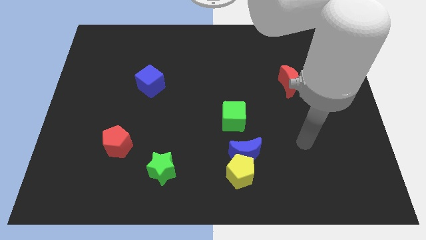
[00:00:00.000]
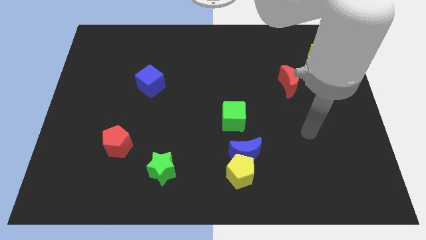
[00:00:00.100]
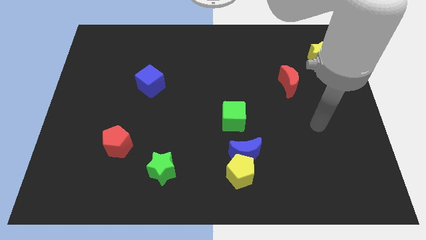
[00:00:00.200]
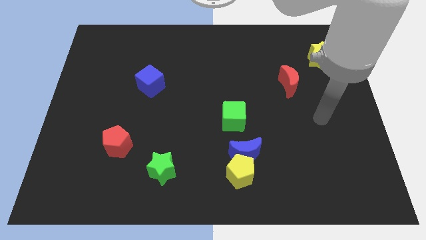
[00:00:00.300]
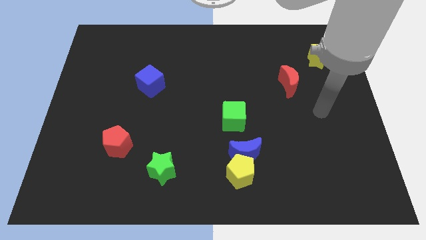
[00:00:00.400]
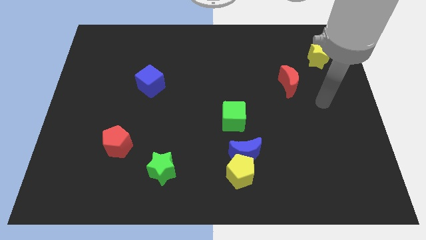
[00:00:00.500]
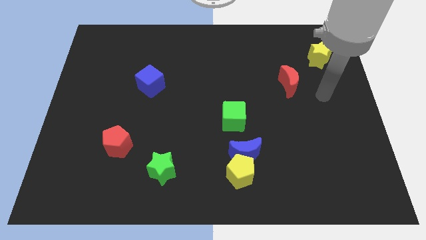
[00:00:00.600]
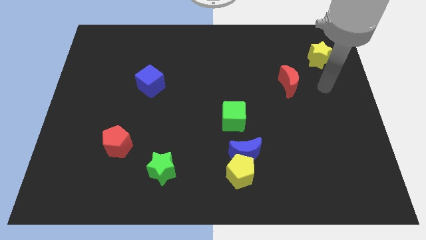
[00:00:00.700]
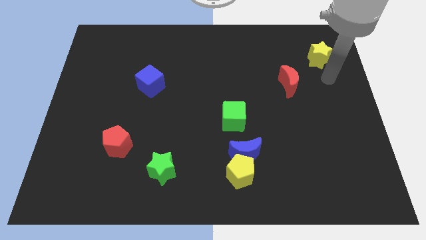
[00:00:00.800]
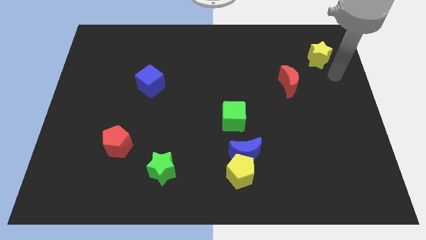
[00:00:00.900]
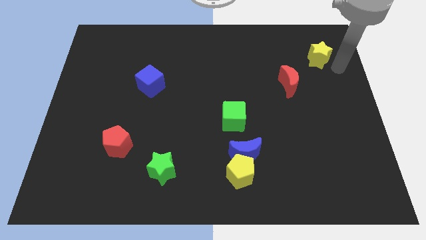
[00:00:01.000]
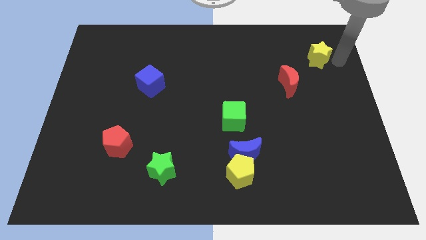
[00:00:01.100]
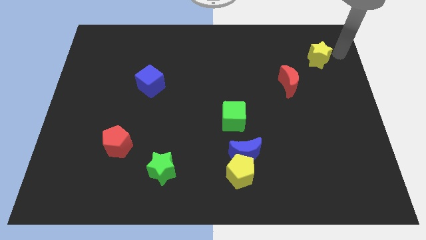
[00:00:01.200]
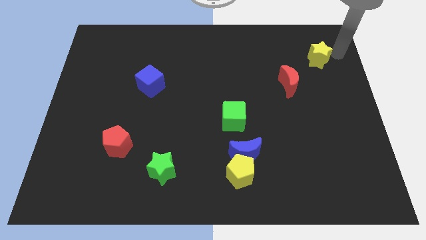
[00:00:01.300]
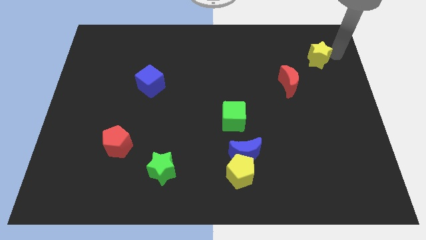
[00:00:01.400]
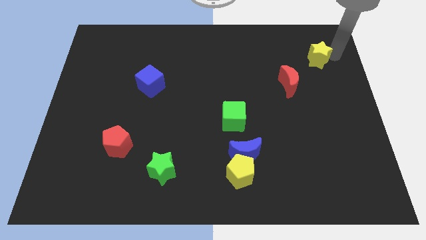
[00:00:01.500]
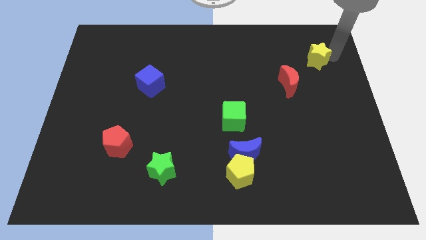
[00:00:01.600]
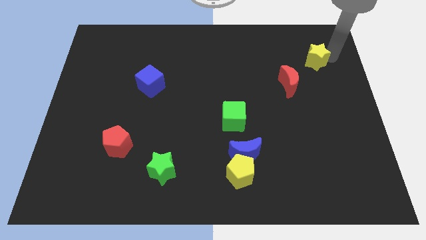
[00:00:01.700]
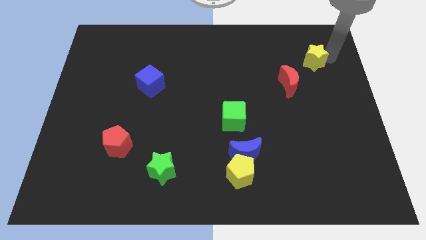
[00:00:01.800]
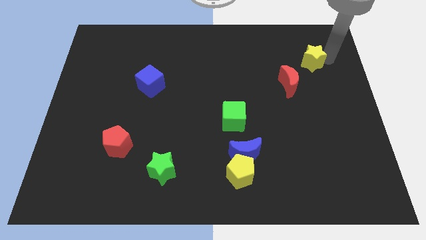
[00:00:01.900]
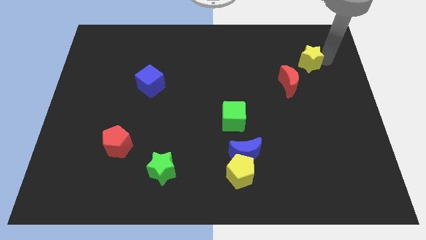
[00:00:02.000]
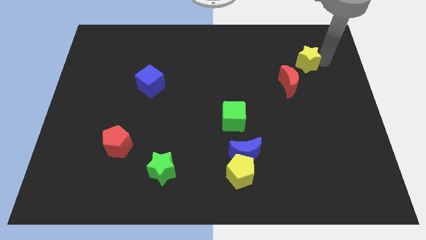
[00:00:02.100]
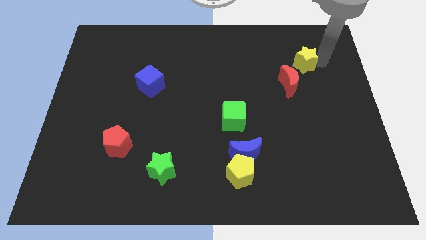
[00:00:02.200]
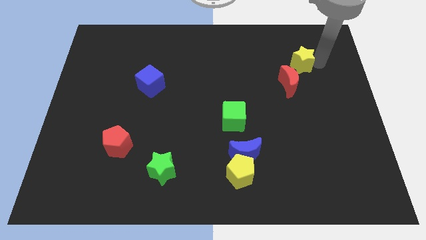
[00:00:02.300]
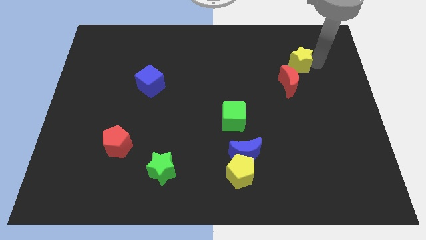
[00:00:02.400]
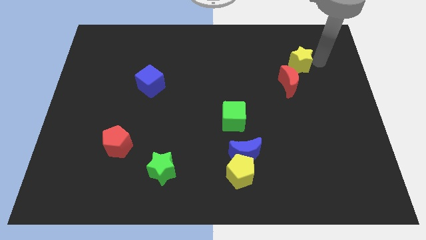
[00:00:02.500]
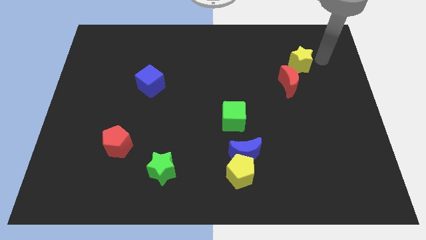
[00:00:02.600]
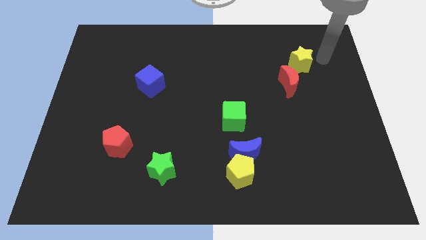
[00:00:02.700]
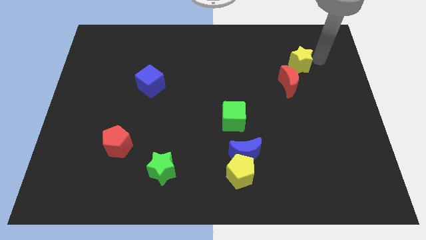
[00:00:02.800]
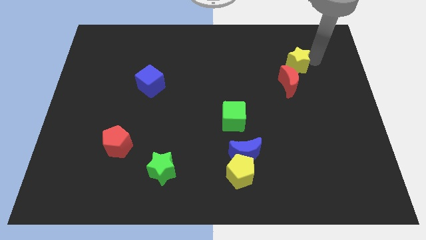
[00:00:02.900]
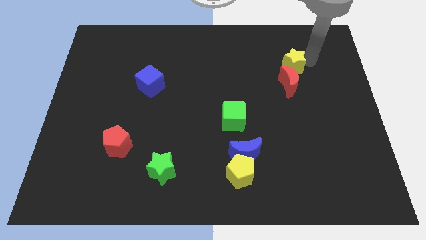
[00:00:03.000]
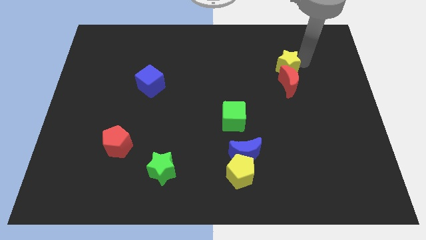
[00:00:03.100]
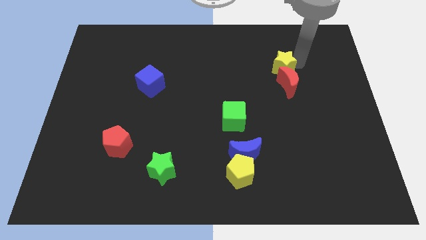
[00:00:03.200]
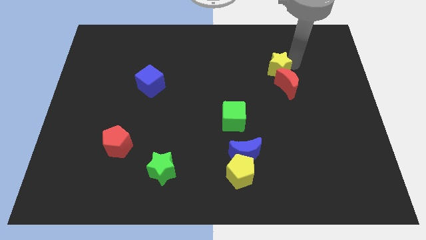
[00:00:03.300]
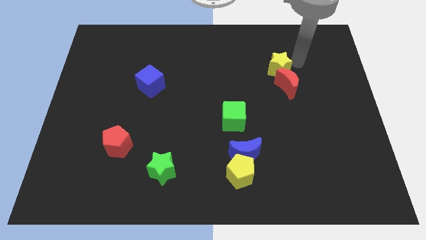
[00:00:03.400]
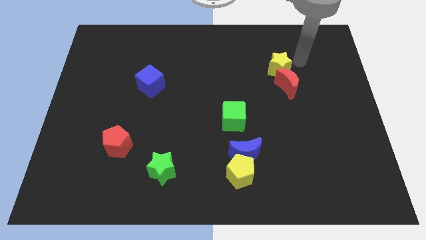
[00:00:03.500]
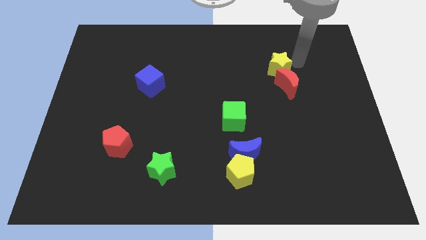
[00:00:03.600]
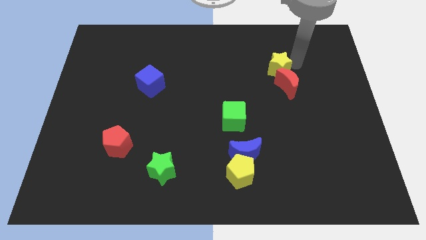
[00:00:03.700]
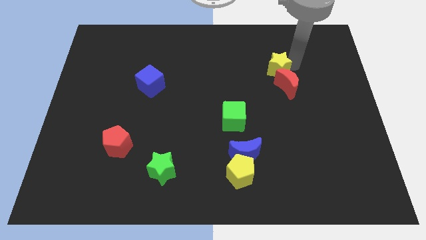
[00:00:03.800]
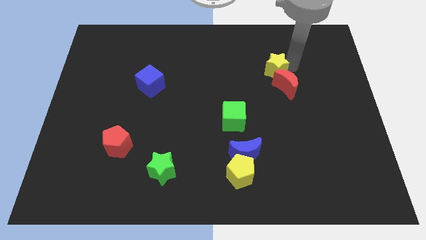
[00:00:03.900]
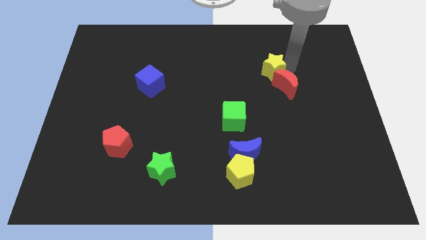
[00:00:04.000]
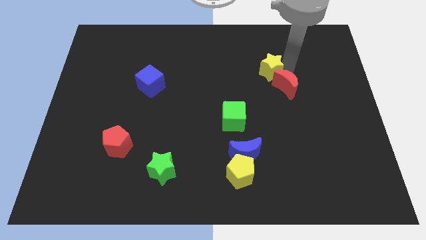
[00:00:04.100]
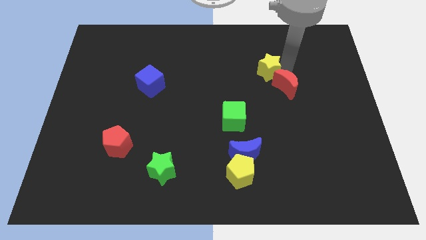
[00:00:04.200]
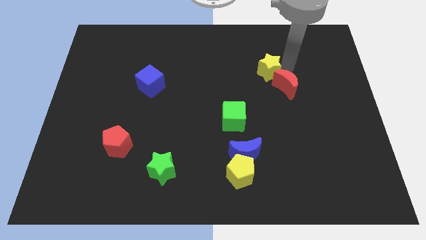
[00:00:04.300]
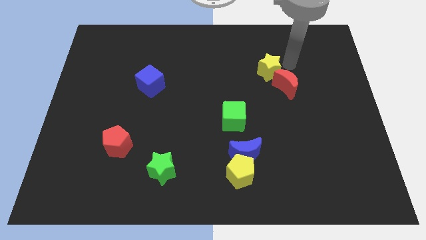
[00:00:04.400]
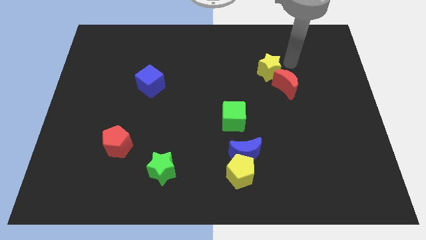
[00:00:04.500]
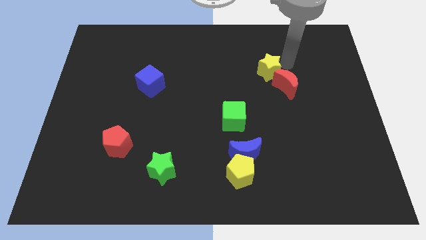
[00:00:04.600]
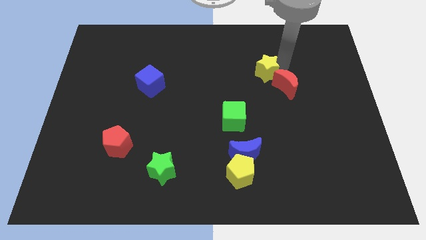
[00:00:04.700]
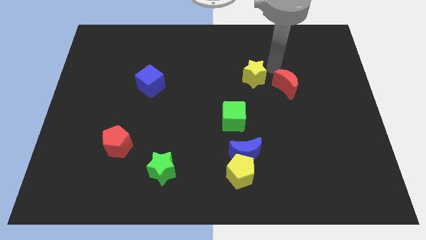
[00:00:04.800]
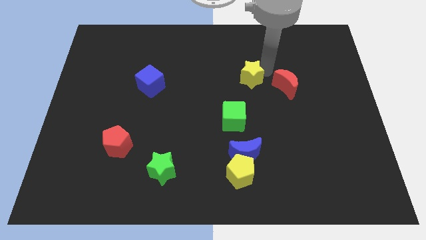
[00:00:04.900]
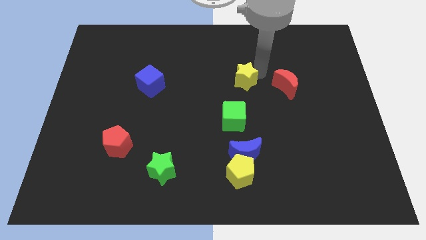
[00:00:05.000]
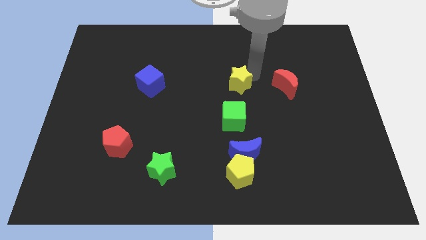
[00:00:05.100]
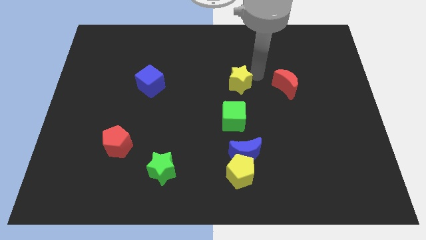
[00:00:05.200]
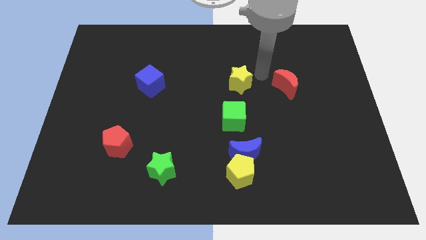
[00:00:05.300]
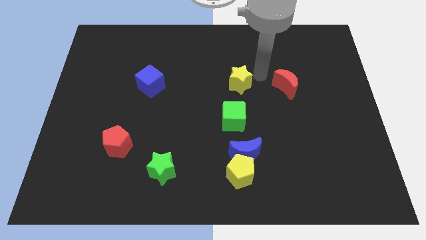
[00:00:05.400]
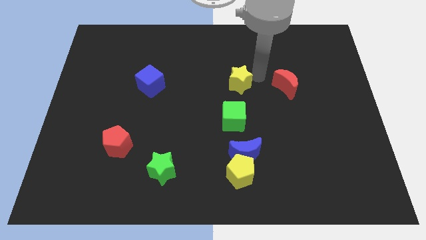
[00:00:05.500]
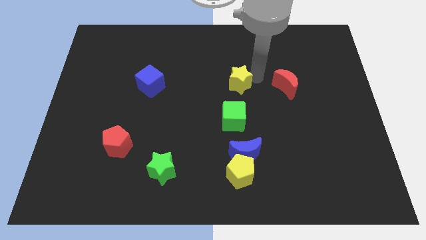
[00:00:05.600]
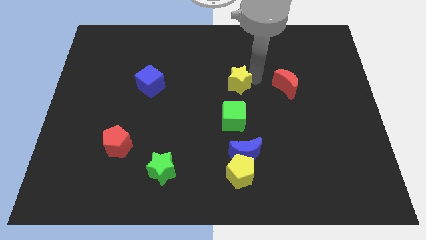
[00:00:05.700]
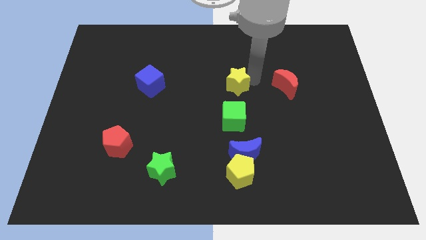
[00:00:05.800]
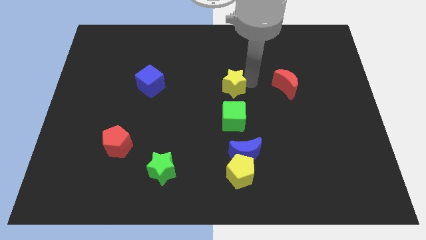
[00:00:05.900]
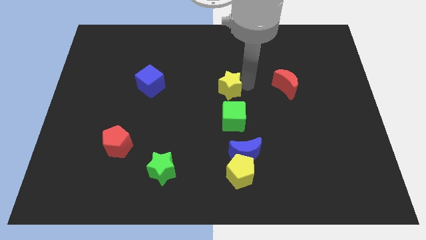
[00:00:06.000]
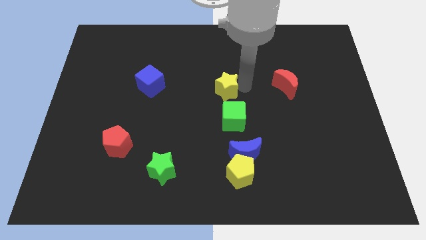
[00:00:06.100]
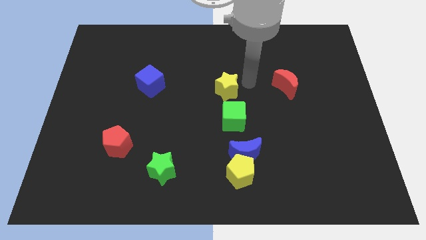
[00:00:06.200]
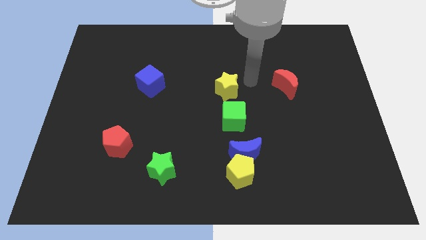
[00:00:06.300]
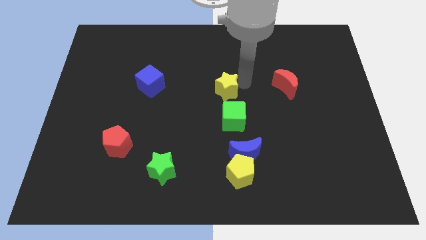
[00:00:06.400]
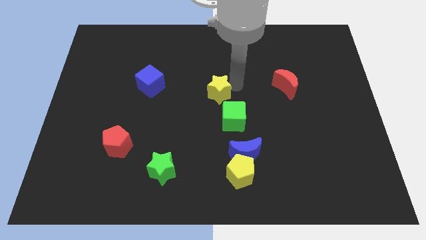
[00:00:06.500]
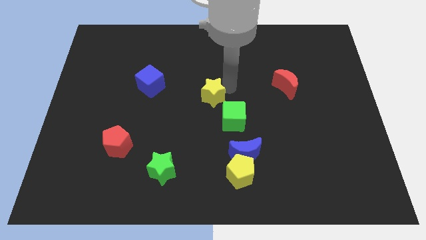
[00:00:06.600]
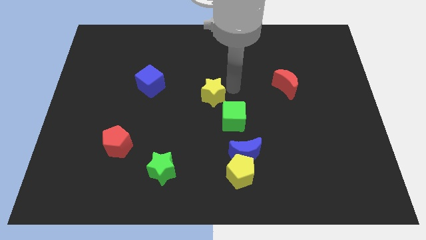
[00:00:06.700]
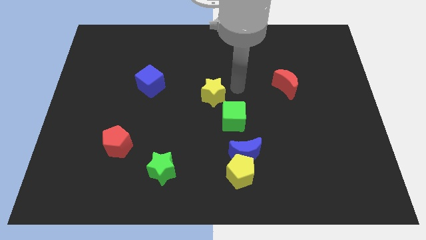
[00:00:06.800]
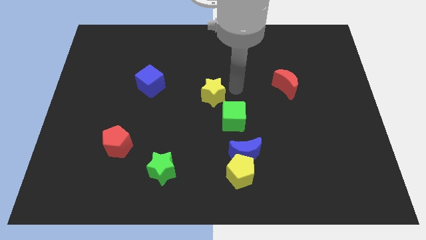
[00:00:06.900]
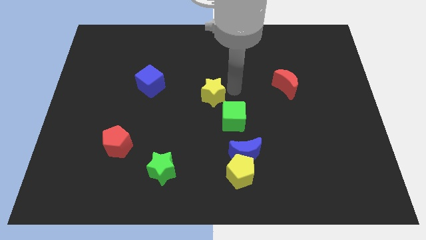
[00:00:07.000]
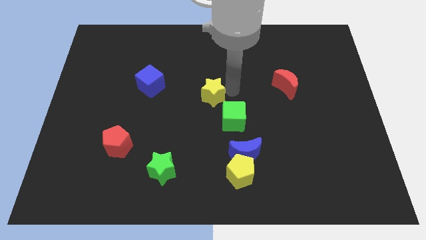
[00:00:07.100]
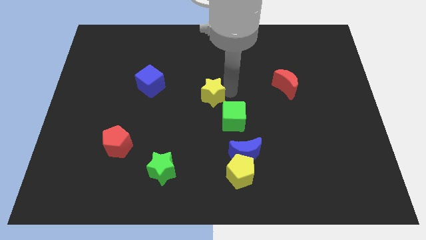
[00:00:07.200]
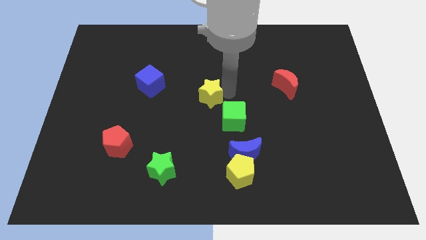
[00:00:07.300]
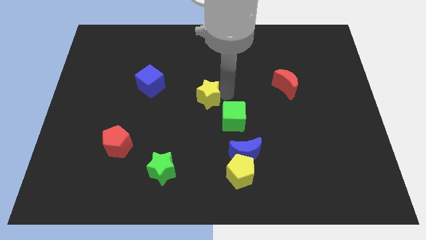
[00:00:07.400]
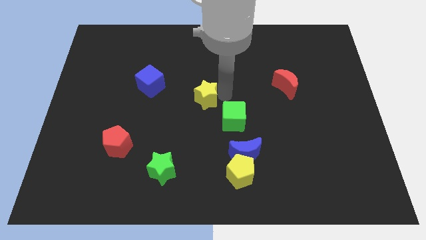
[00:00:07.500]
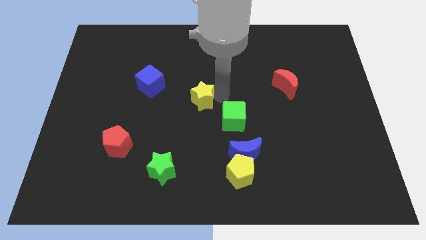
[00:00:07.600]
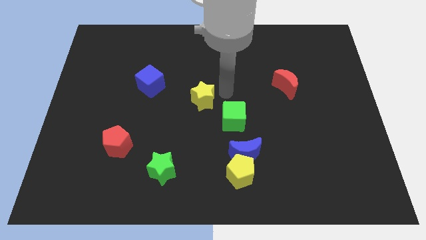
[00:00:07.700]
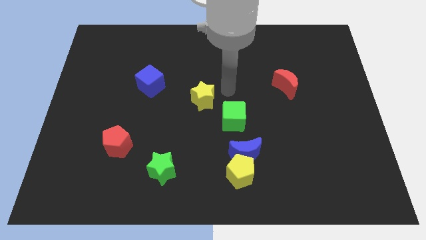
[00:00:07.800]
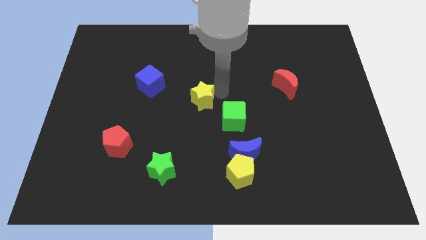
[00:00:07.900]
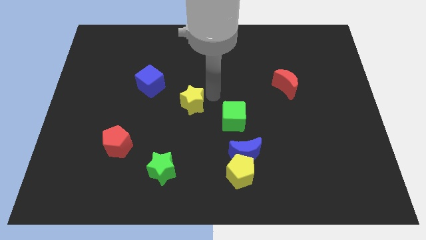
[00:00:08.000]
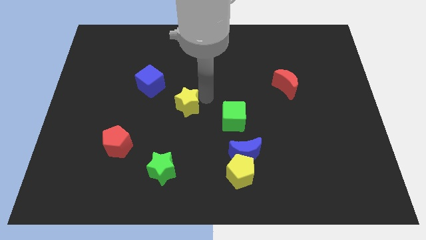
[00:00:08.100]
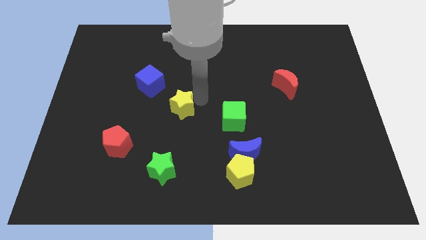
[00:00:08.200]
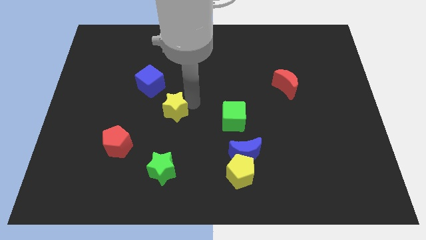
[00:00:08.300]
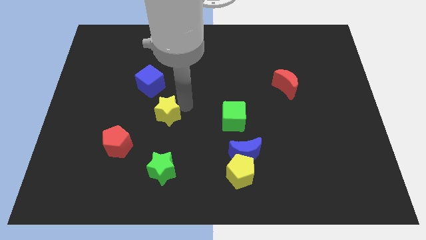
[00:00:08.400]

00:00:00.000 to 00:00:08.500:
slide the yellow star to the bottom side of the blue cube
